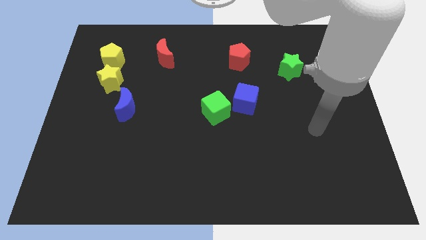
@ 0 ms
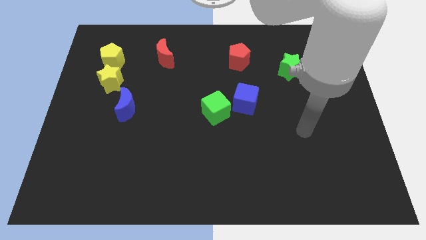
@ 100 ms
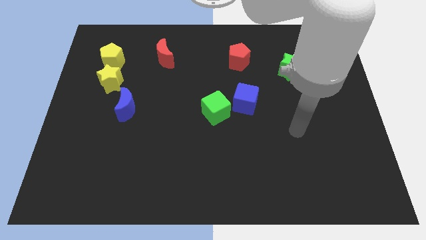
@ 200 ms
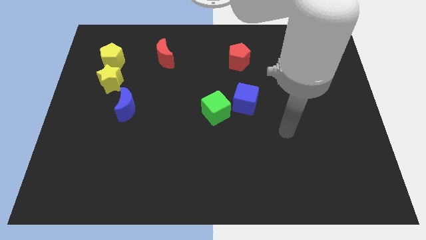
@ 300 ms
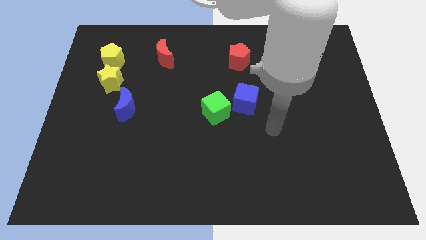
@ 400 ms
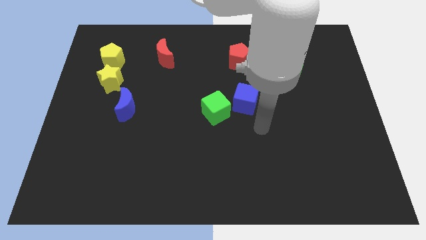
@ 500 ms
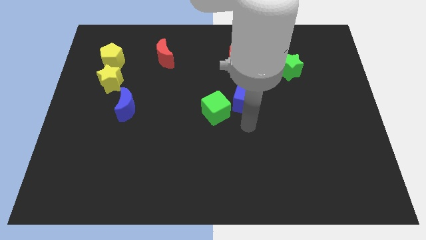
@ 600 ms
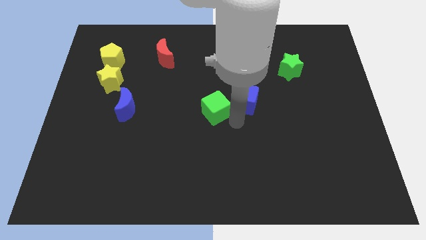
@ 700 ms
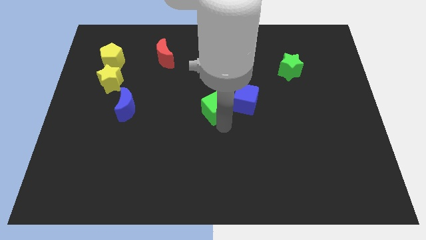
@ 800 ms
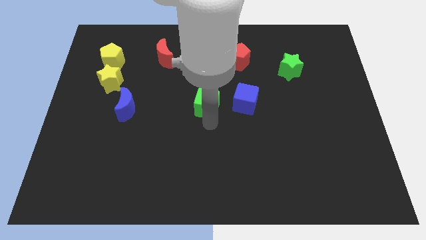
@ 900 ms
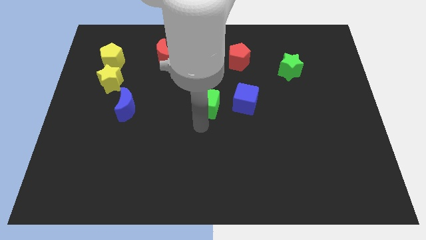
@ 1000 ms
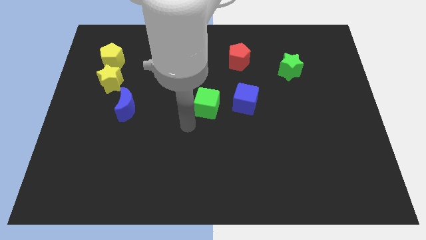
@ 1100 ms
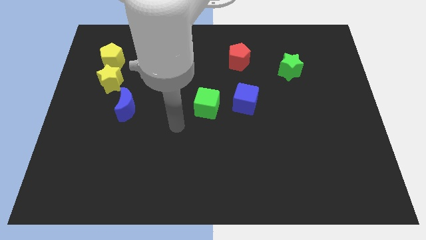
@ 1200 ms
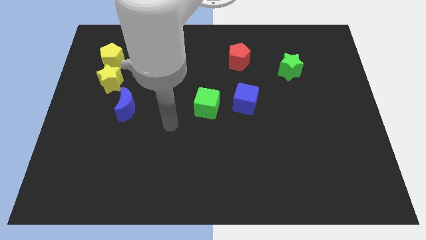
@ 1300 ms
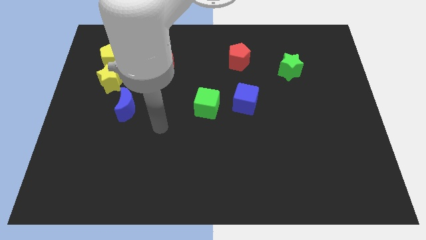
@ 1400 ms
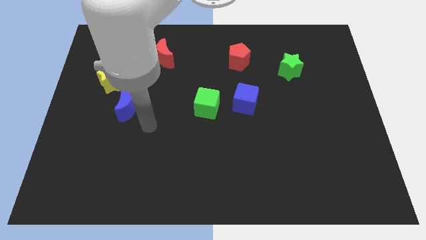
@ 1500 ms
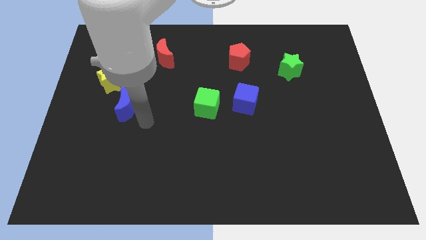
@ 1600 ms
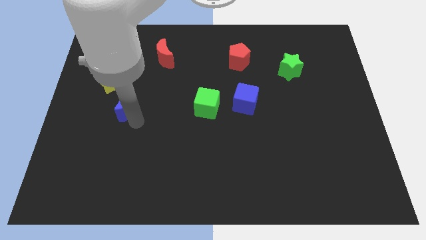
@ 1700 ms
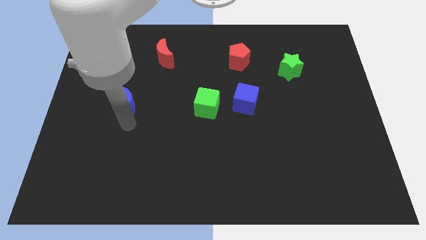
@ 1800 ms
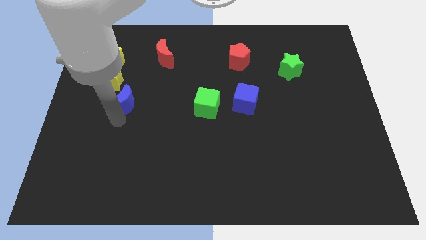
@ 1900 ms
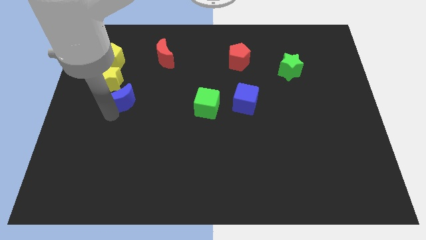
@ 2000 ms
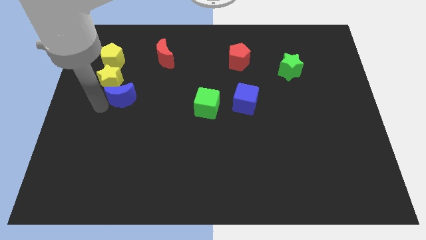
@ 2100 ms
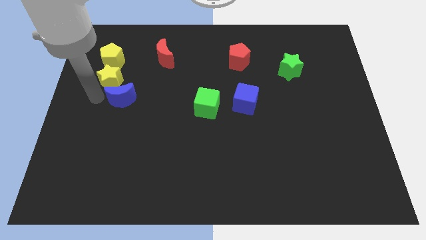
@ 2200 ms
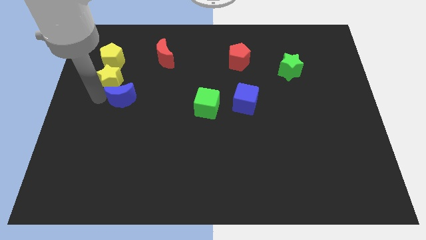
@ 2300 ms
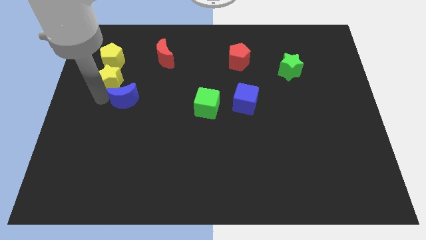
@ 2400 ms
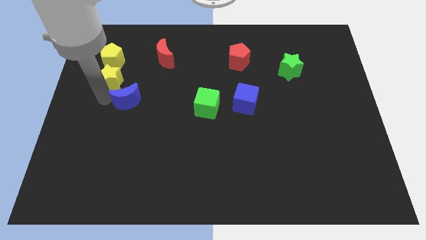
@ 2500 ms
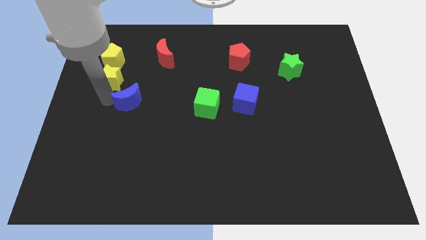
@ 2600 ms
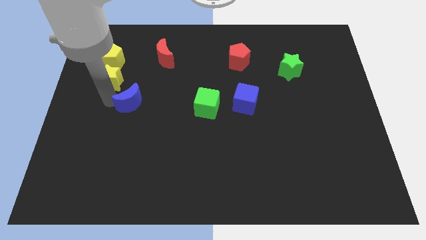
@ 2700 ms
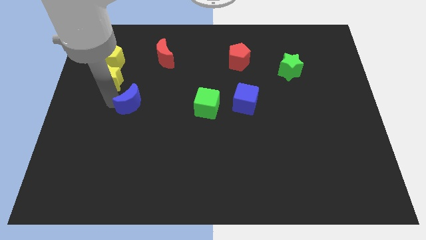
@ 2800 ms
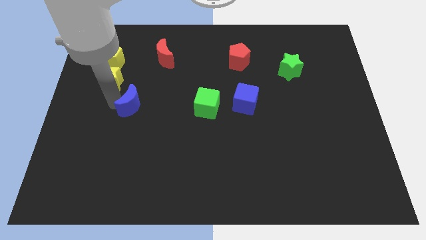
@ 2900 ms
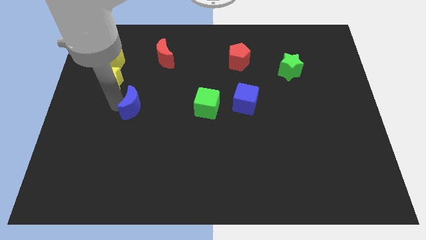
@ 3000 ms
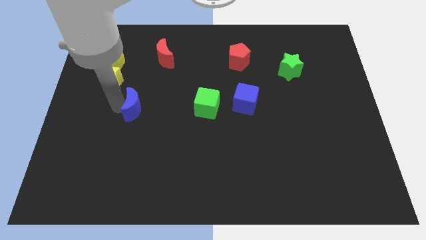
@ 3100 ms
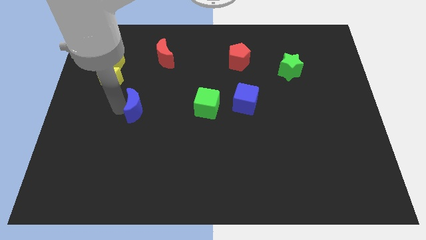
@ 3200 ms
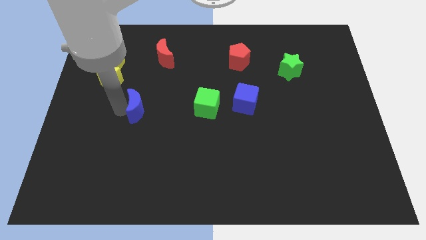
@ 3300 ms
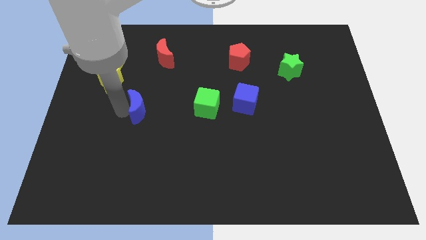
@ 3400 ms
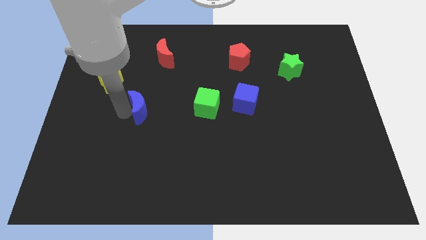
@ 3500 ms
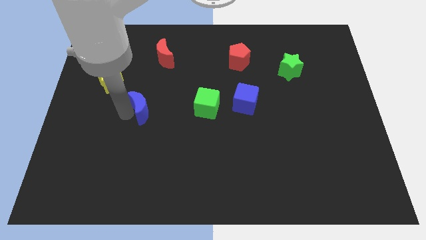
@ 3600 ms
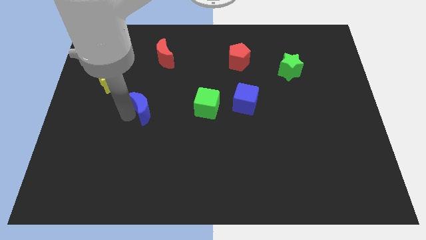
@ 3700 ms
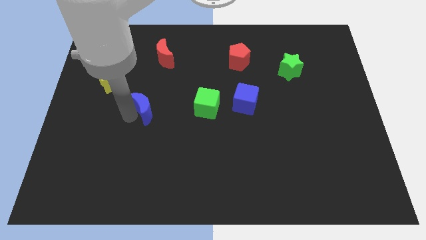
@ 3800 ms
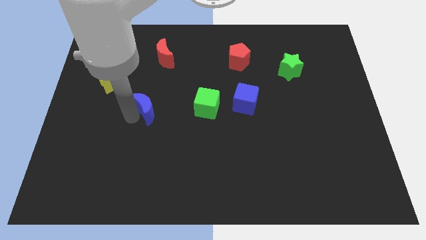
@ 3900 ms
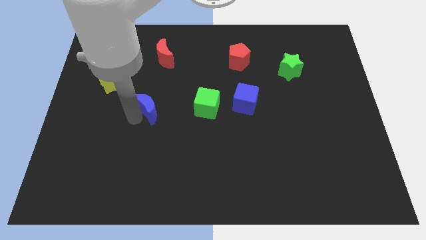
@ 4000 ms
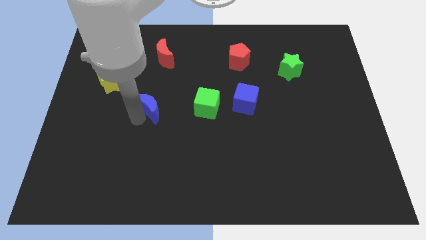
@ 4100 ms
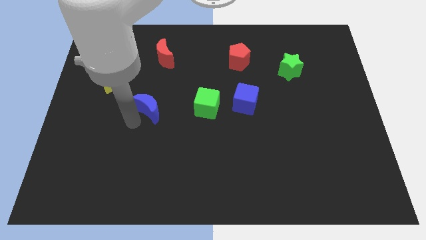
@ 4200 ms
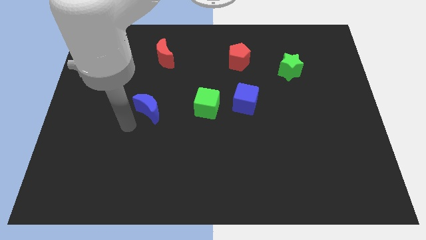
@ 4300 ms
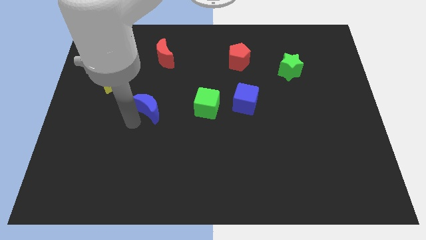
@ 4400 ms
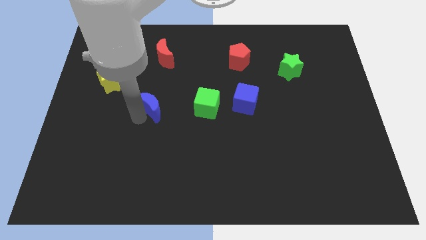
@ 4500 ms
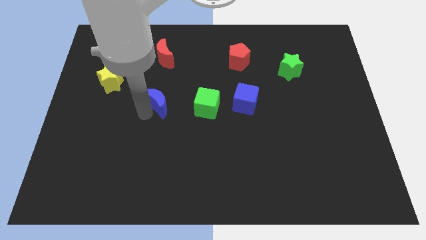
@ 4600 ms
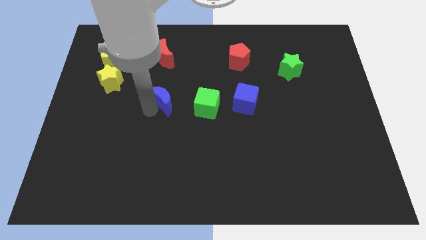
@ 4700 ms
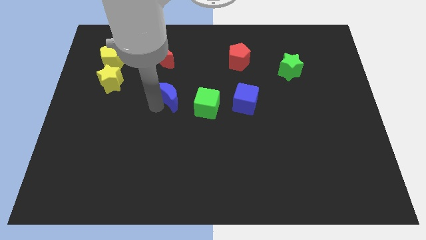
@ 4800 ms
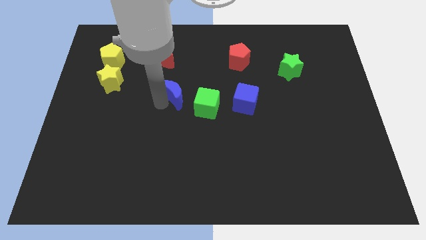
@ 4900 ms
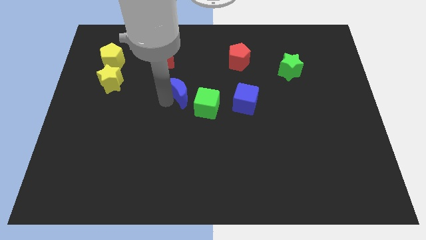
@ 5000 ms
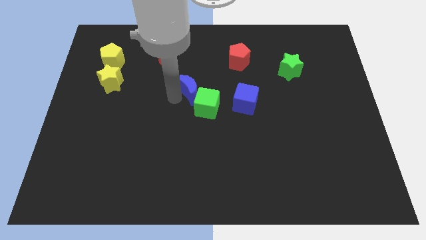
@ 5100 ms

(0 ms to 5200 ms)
move the blue moon to the top side of the green cube

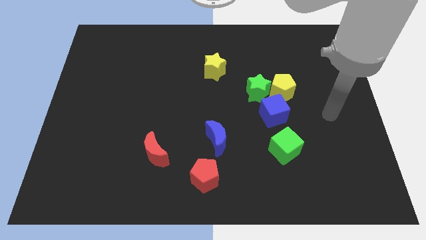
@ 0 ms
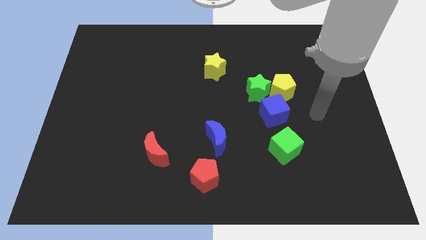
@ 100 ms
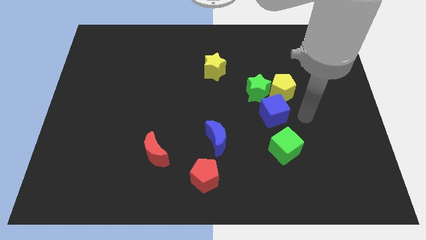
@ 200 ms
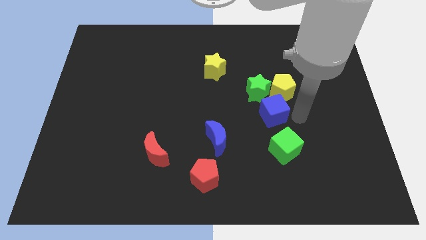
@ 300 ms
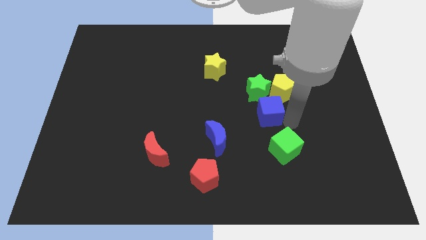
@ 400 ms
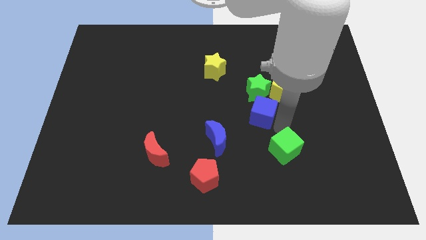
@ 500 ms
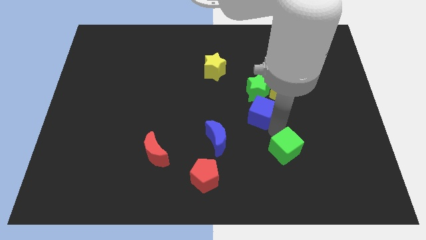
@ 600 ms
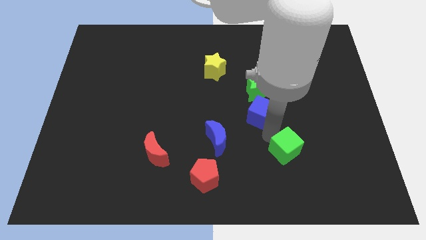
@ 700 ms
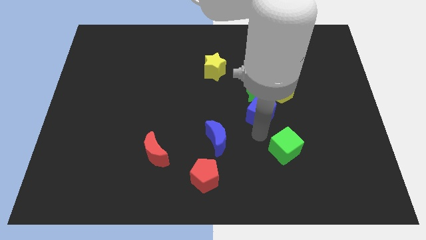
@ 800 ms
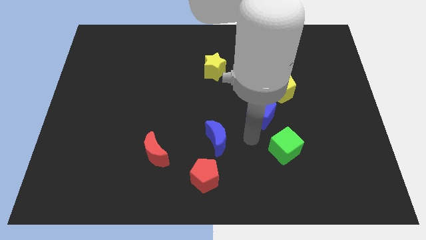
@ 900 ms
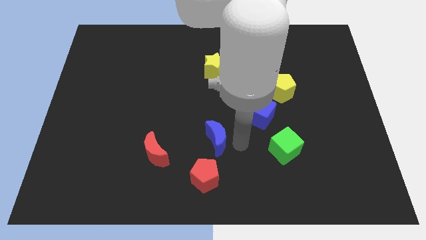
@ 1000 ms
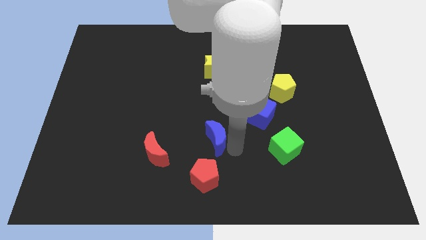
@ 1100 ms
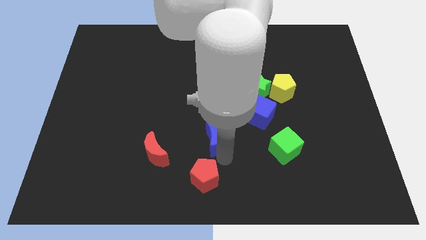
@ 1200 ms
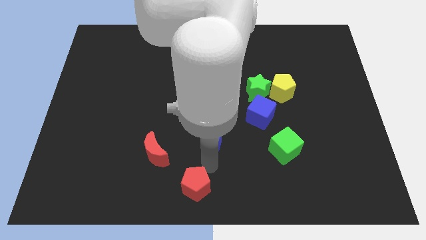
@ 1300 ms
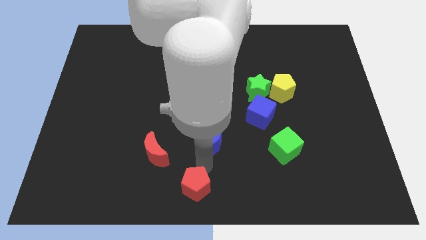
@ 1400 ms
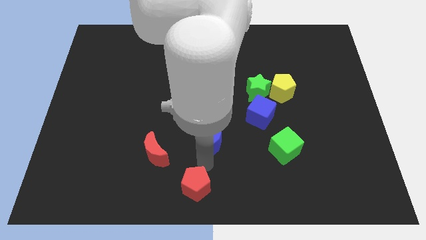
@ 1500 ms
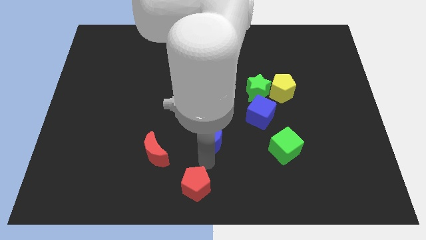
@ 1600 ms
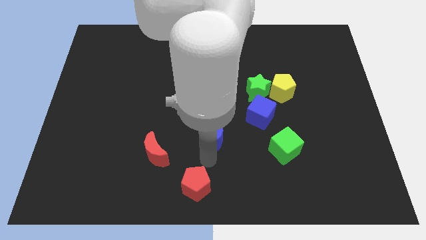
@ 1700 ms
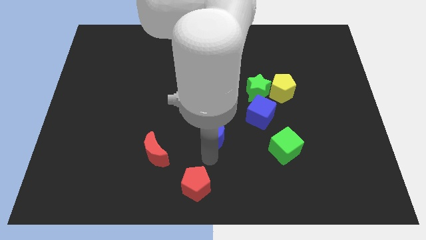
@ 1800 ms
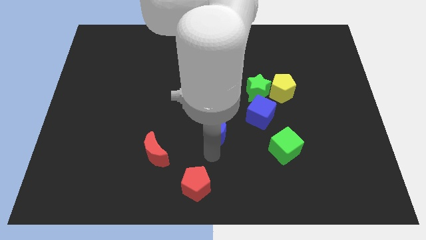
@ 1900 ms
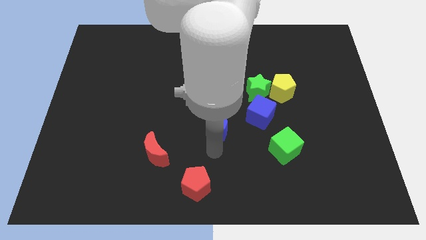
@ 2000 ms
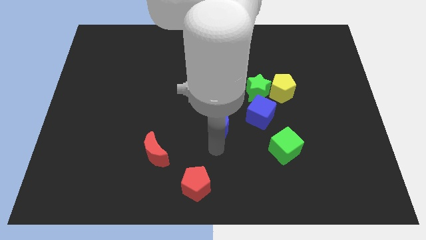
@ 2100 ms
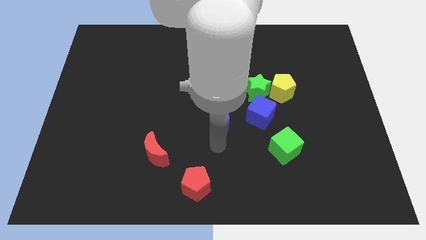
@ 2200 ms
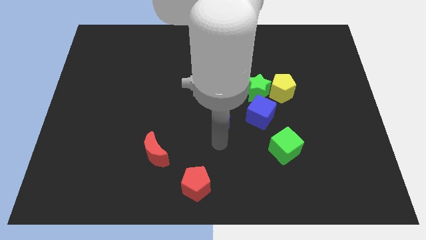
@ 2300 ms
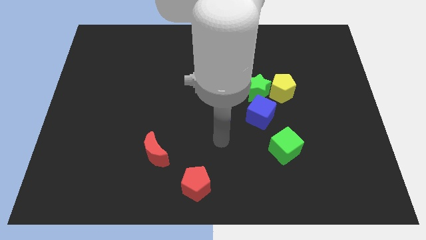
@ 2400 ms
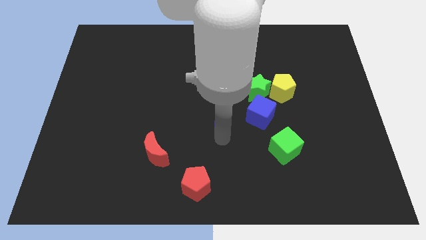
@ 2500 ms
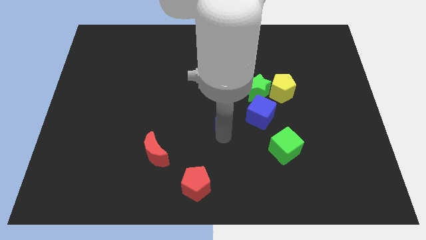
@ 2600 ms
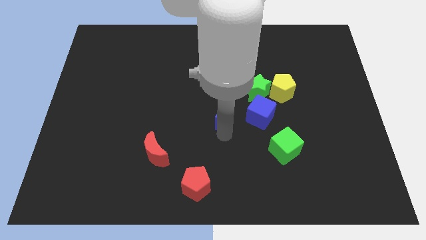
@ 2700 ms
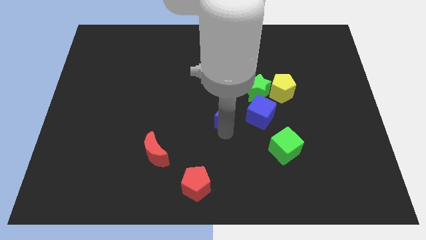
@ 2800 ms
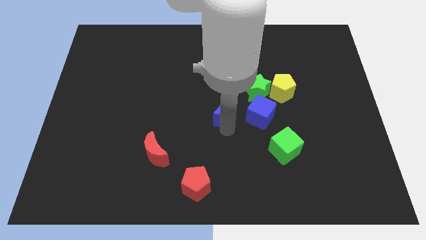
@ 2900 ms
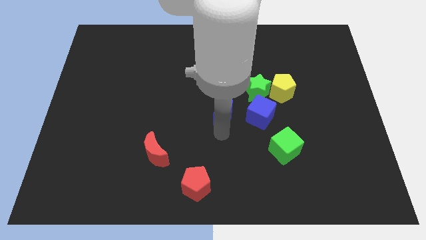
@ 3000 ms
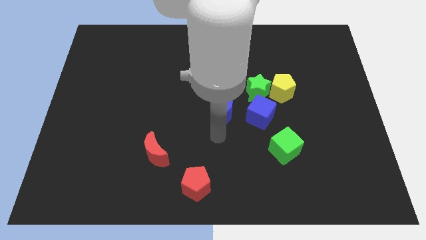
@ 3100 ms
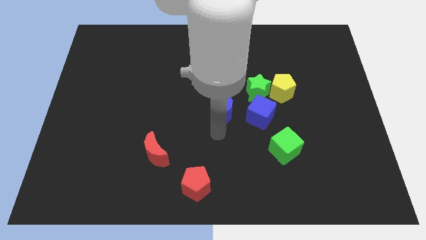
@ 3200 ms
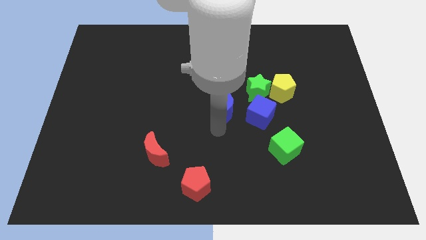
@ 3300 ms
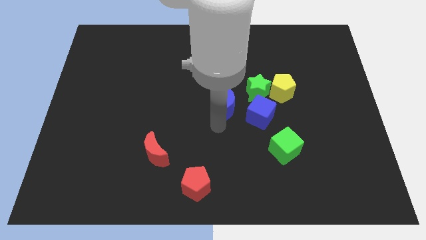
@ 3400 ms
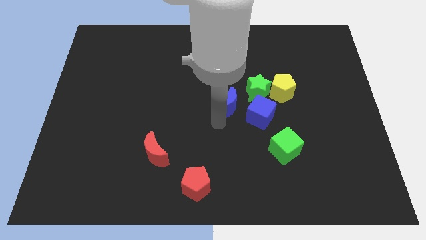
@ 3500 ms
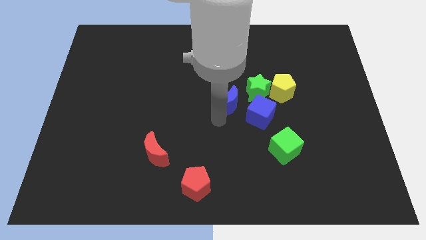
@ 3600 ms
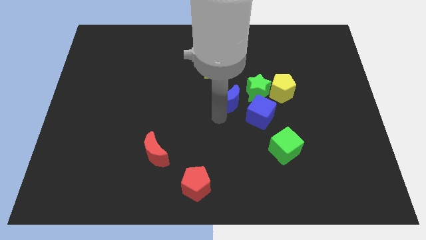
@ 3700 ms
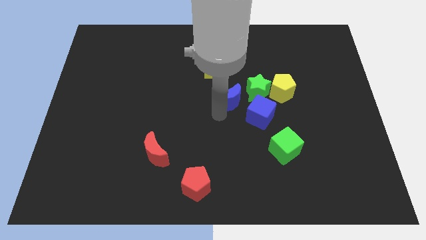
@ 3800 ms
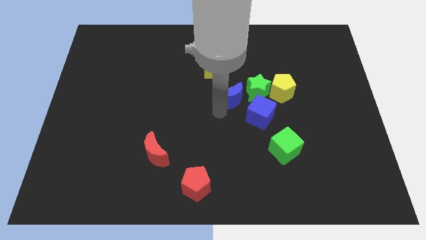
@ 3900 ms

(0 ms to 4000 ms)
push the blue moon to the bottom right of the yellow star
